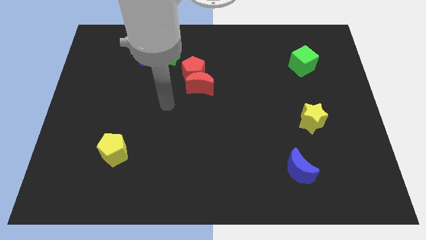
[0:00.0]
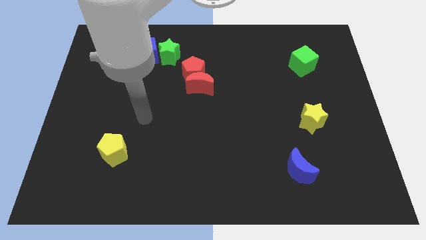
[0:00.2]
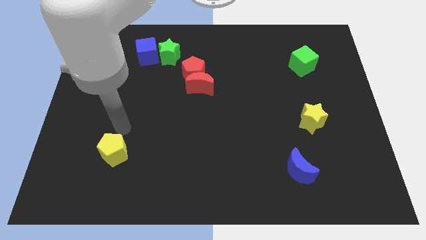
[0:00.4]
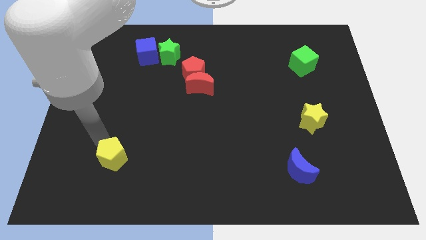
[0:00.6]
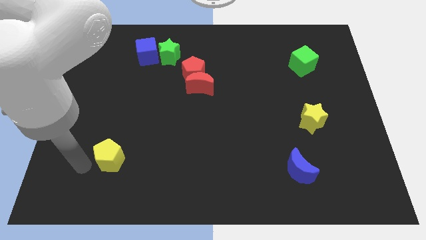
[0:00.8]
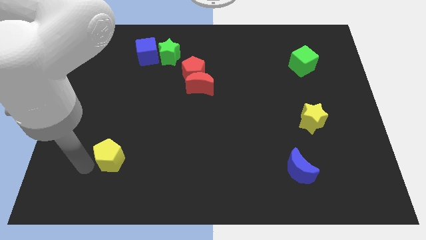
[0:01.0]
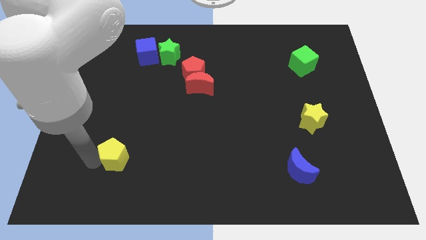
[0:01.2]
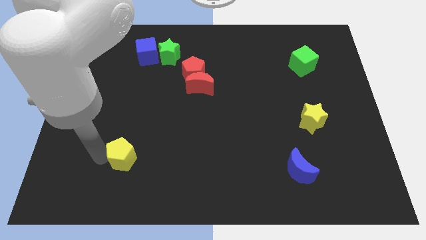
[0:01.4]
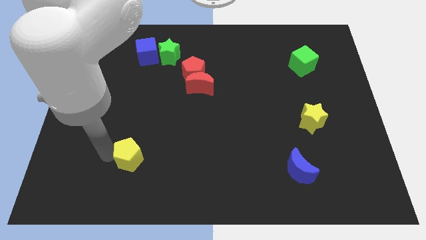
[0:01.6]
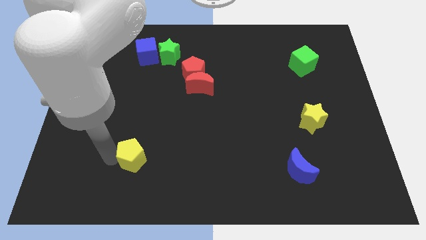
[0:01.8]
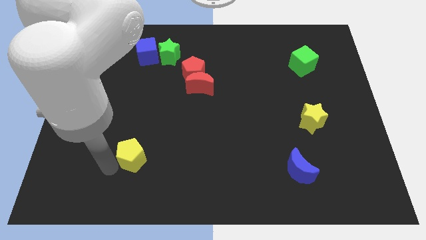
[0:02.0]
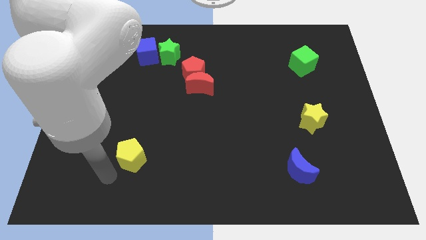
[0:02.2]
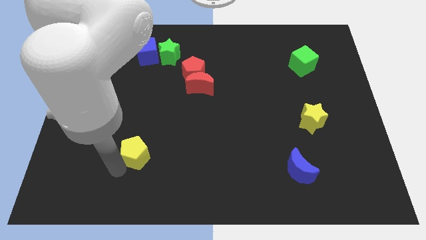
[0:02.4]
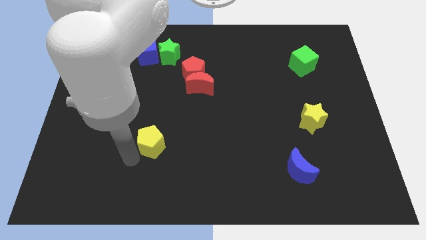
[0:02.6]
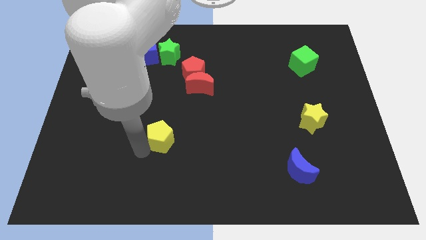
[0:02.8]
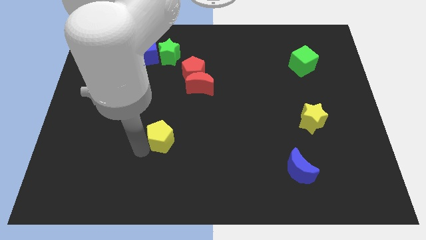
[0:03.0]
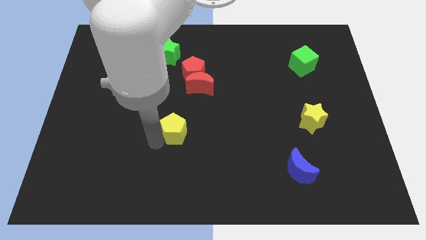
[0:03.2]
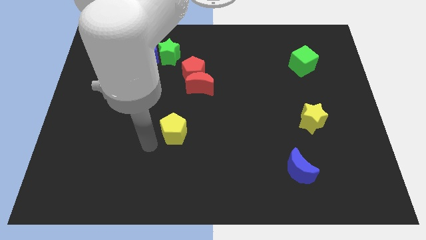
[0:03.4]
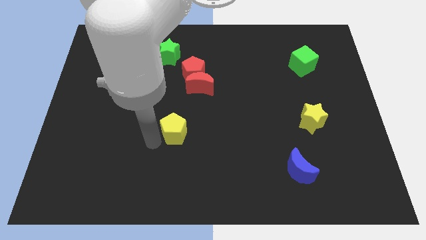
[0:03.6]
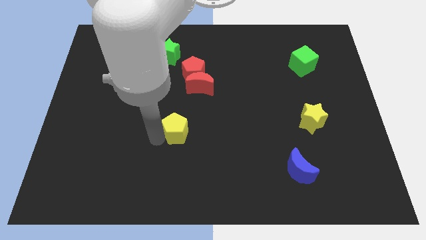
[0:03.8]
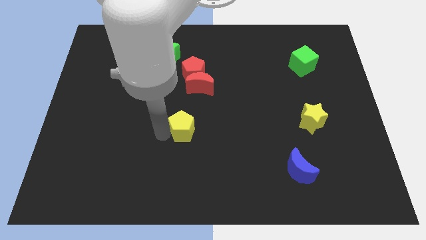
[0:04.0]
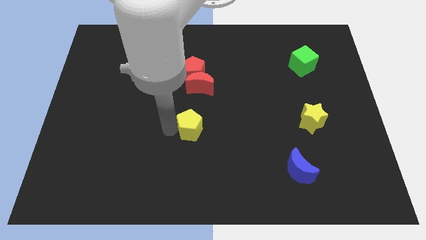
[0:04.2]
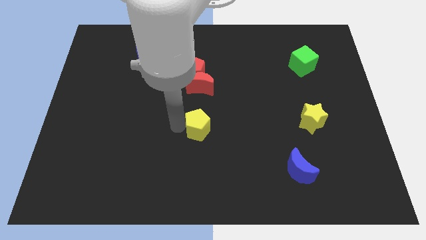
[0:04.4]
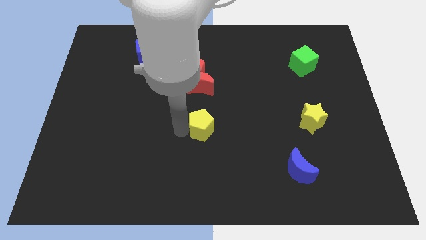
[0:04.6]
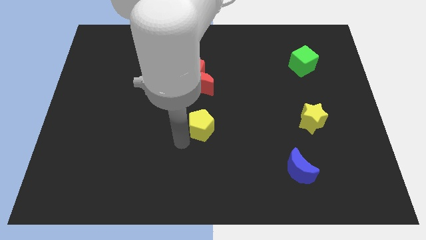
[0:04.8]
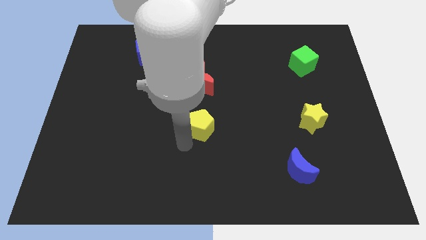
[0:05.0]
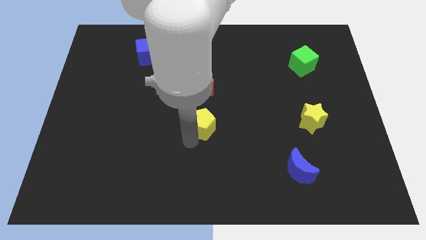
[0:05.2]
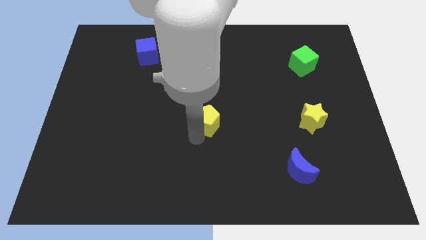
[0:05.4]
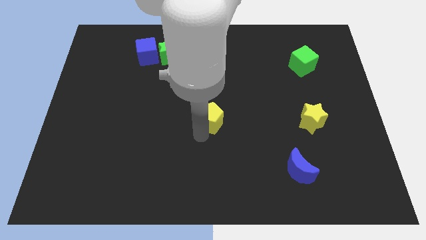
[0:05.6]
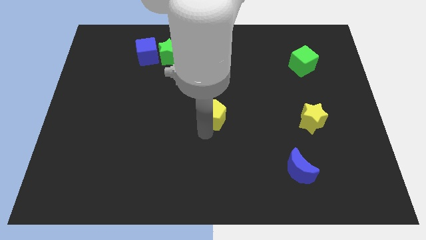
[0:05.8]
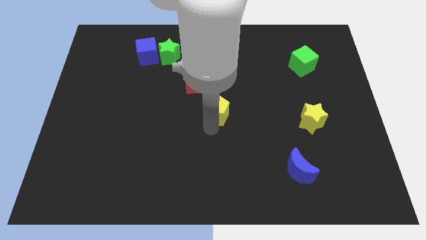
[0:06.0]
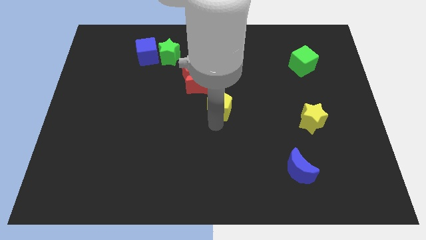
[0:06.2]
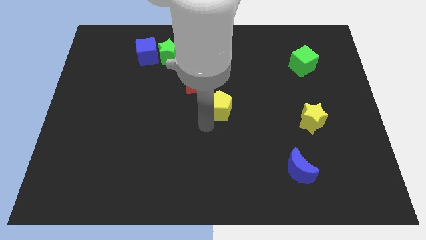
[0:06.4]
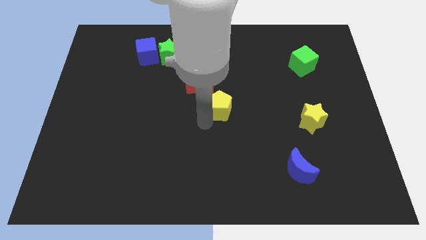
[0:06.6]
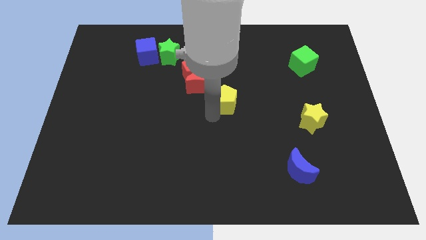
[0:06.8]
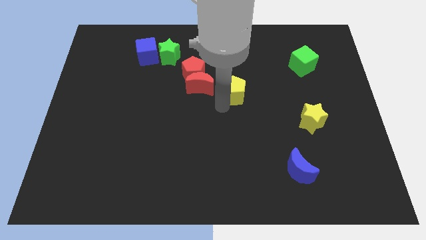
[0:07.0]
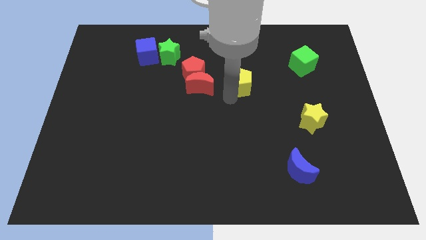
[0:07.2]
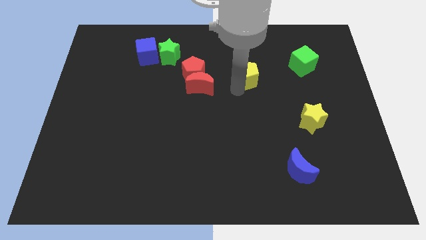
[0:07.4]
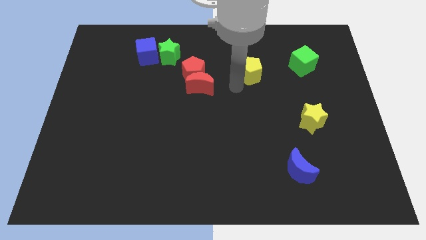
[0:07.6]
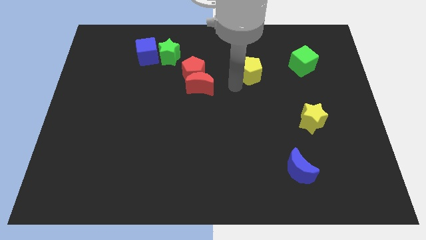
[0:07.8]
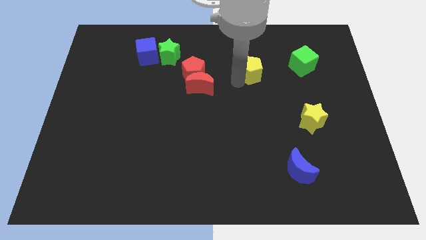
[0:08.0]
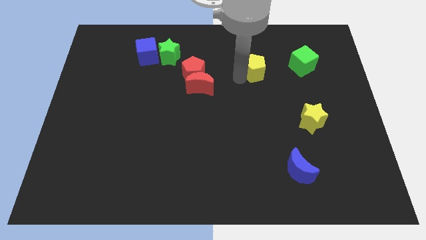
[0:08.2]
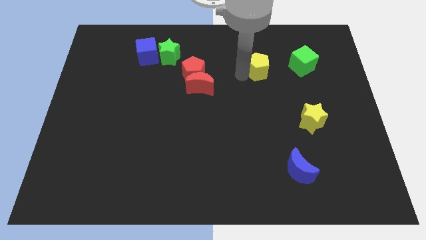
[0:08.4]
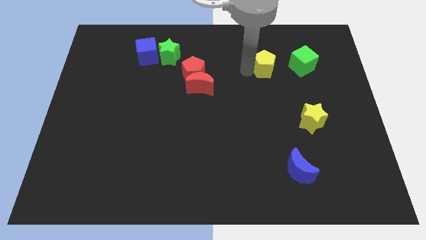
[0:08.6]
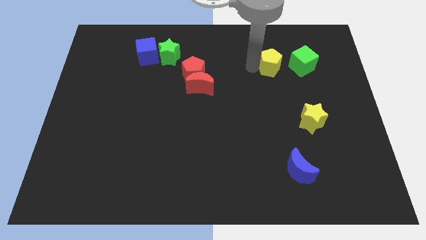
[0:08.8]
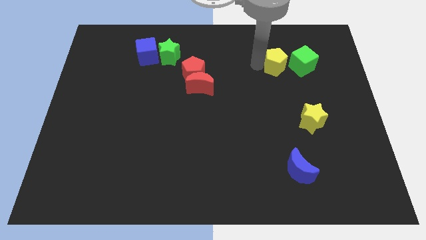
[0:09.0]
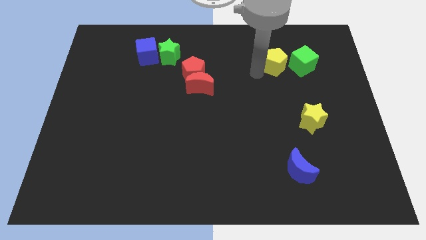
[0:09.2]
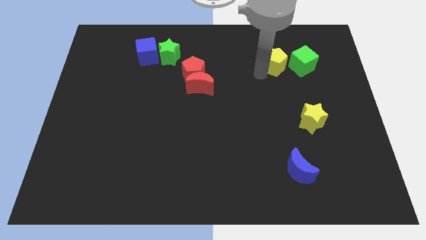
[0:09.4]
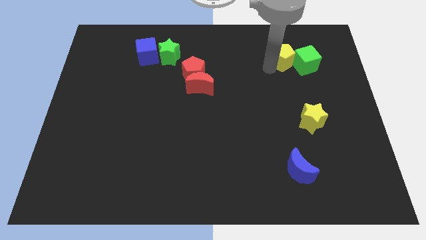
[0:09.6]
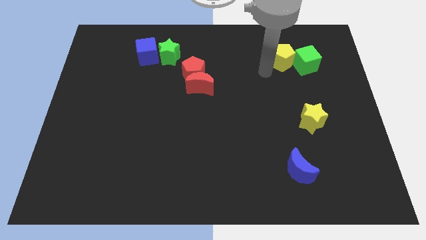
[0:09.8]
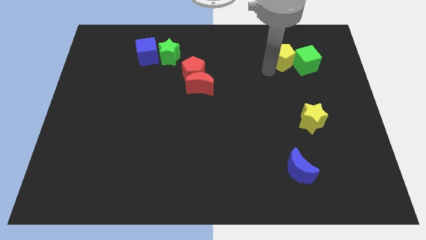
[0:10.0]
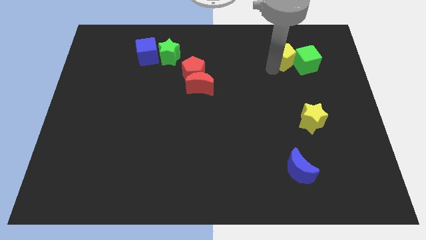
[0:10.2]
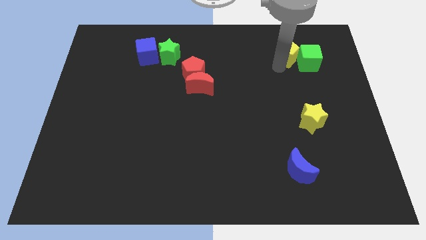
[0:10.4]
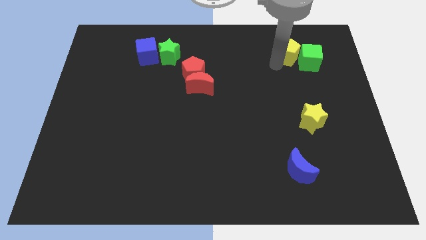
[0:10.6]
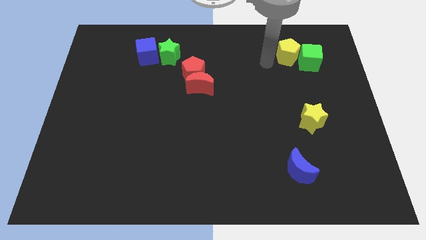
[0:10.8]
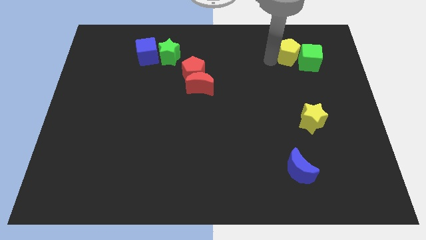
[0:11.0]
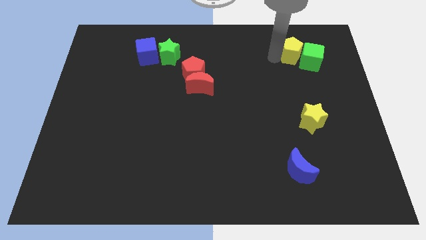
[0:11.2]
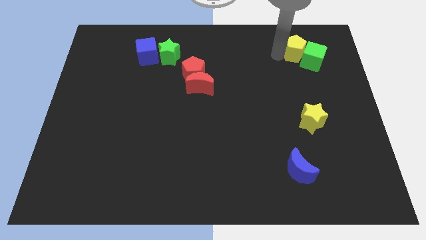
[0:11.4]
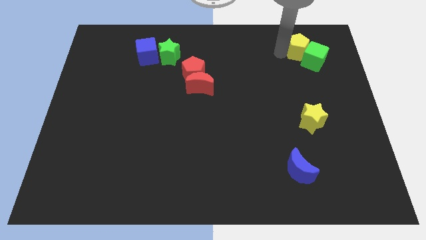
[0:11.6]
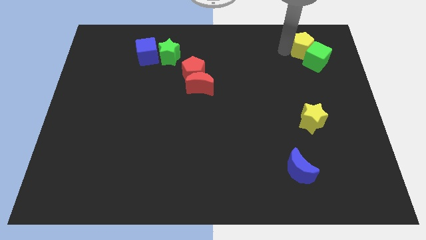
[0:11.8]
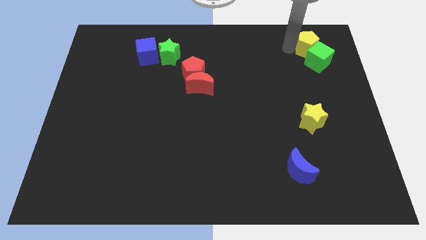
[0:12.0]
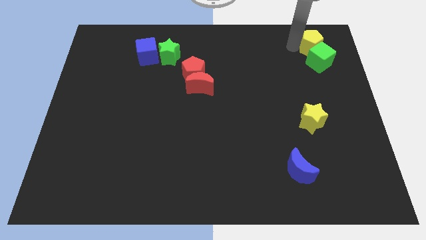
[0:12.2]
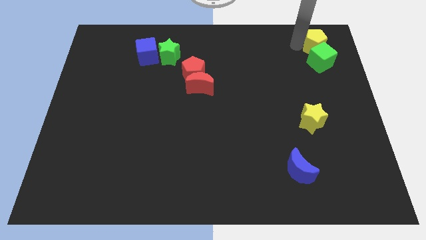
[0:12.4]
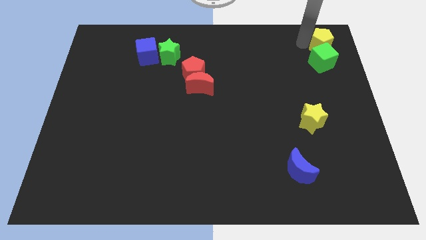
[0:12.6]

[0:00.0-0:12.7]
put the yellow pentagon to the upper right corner
